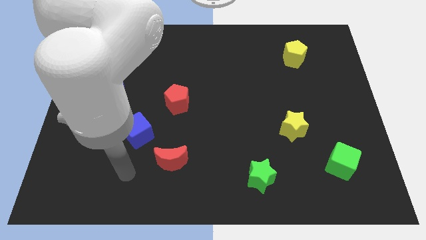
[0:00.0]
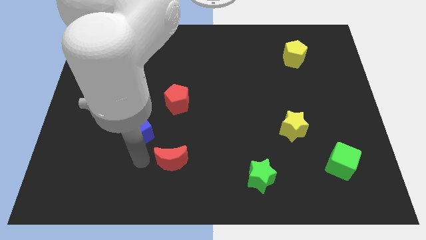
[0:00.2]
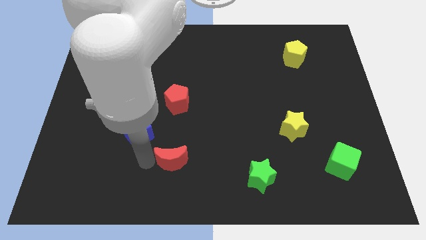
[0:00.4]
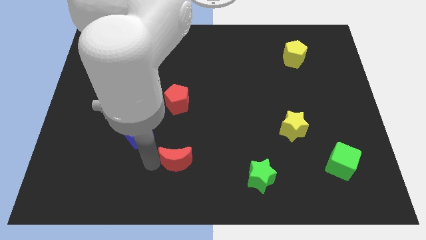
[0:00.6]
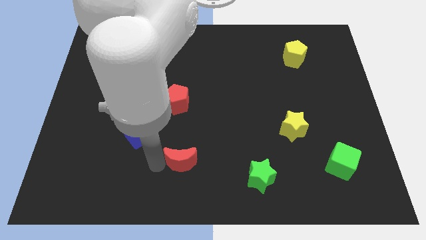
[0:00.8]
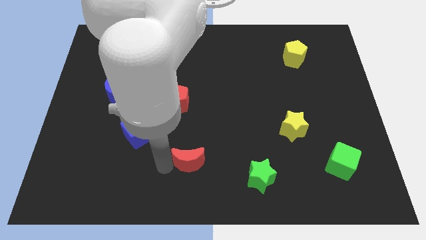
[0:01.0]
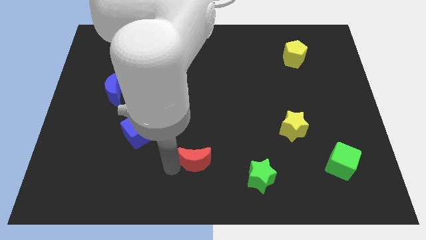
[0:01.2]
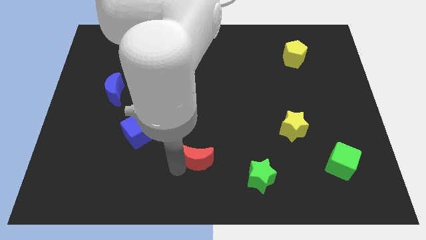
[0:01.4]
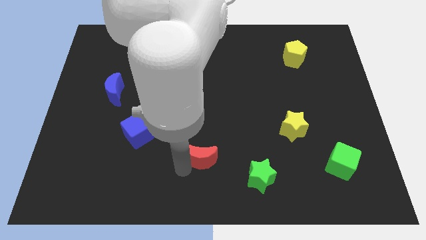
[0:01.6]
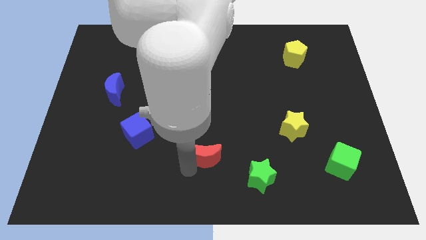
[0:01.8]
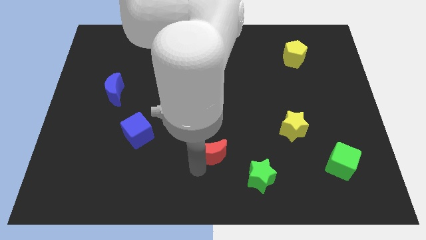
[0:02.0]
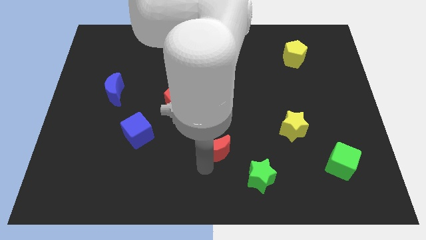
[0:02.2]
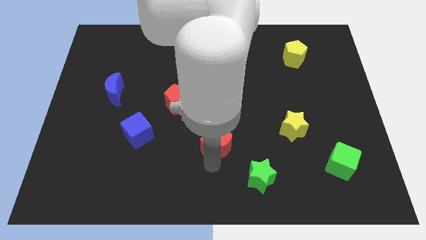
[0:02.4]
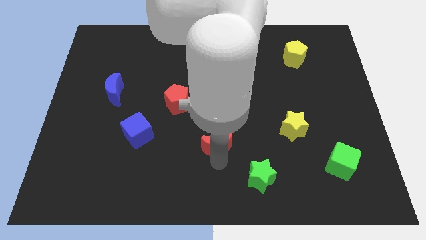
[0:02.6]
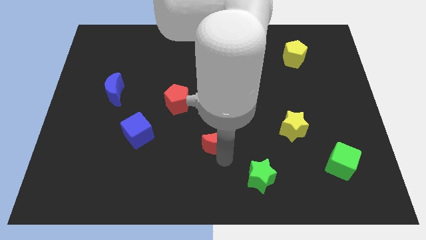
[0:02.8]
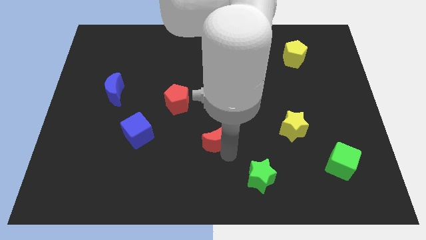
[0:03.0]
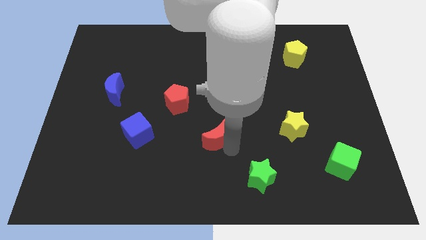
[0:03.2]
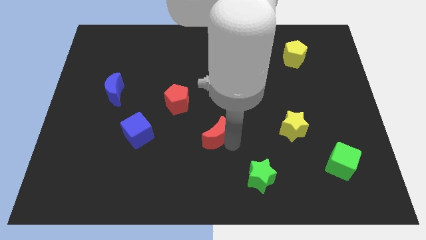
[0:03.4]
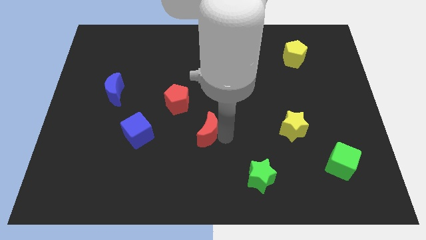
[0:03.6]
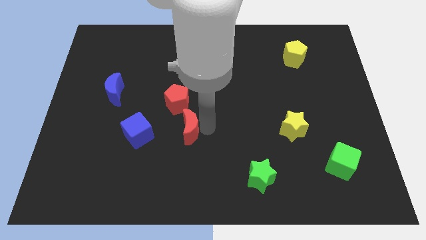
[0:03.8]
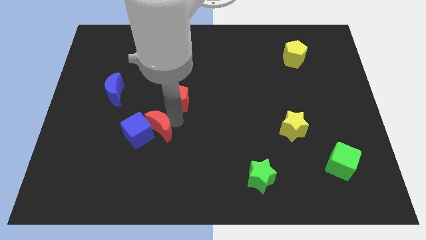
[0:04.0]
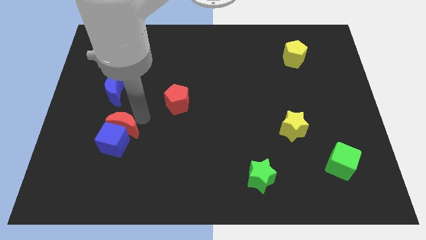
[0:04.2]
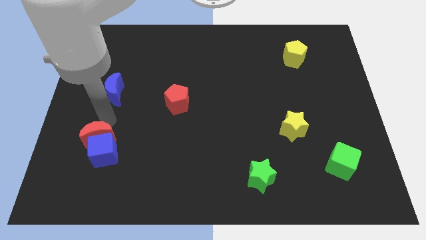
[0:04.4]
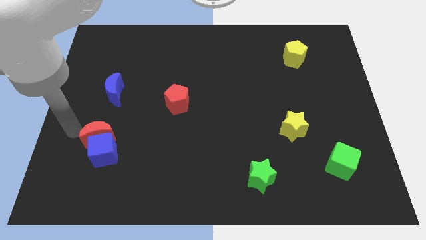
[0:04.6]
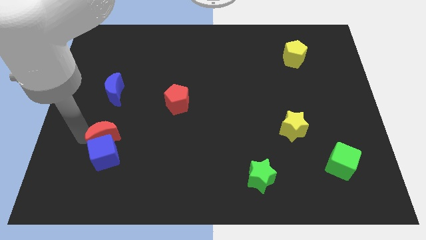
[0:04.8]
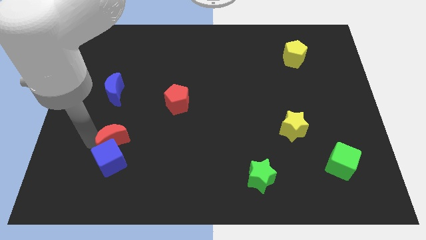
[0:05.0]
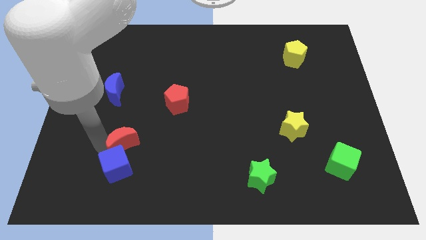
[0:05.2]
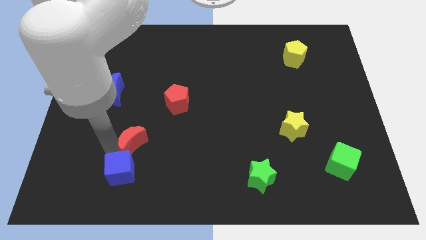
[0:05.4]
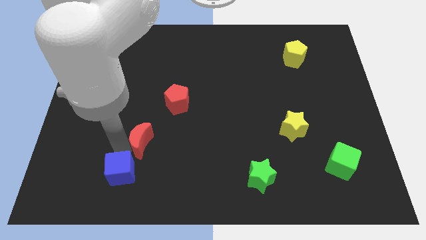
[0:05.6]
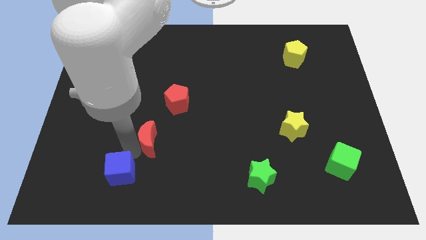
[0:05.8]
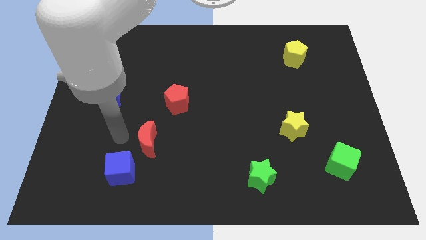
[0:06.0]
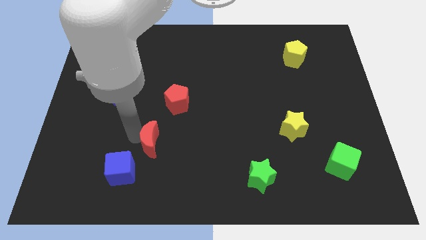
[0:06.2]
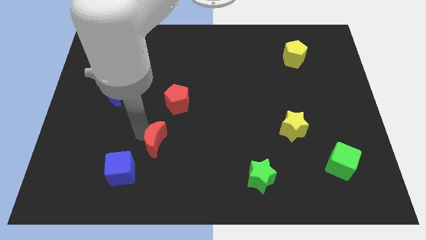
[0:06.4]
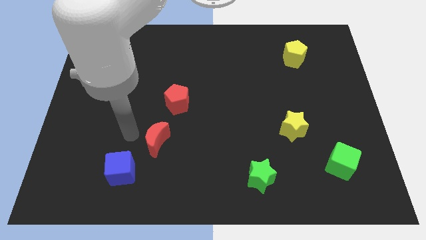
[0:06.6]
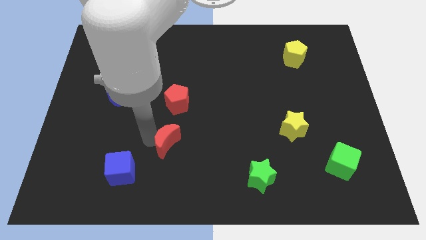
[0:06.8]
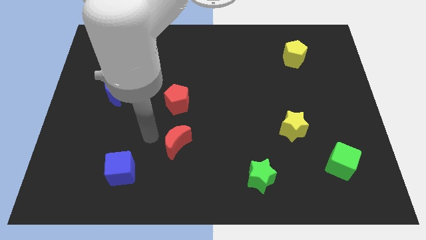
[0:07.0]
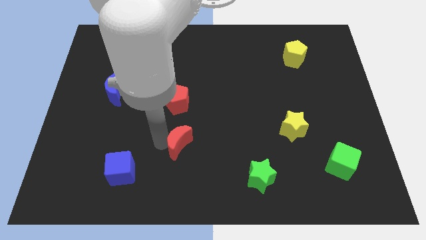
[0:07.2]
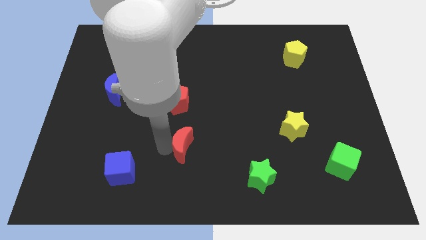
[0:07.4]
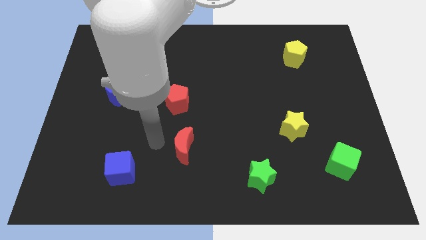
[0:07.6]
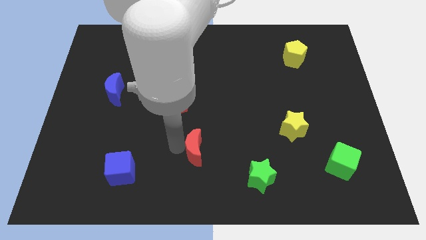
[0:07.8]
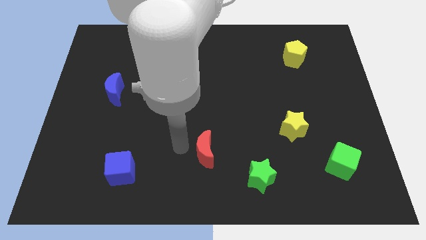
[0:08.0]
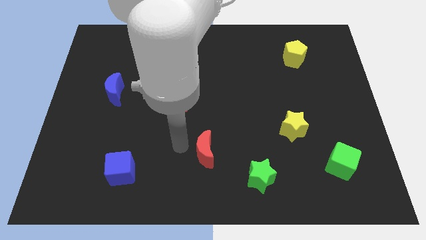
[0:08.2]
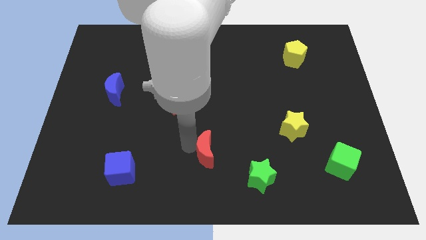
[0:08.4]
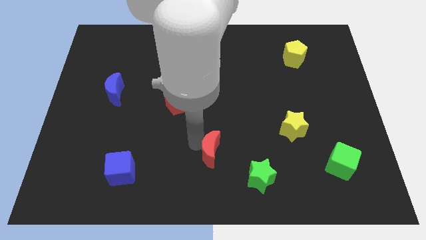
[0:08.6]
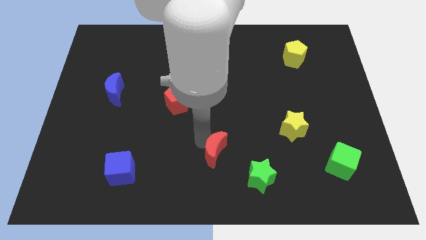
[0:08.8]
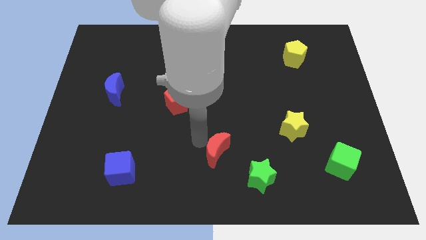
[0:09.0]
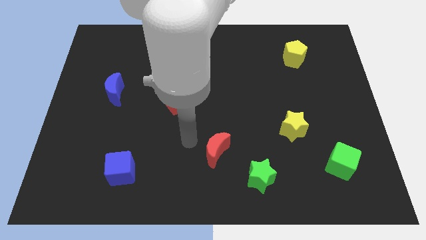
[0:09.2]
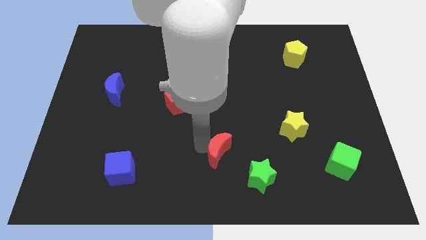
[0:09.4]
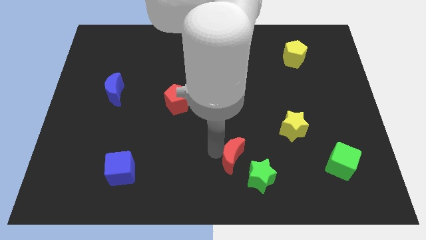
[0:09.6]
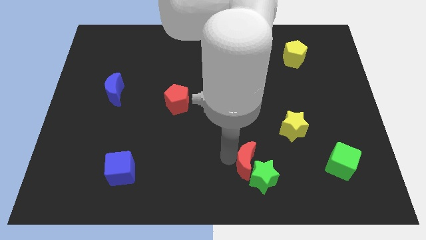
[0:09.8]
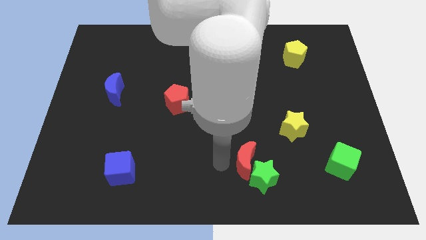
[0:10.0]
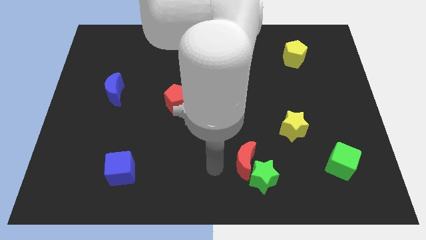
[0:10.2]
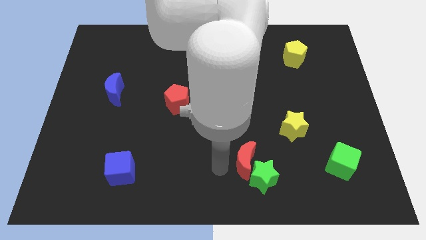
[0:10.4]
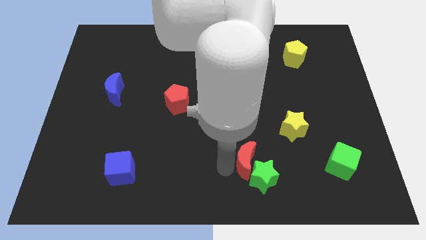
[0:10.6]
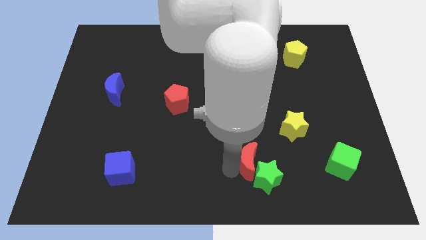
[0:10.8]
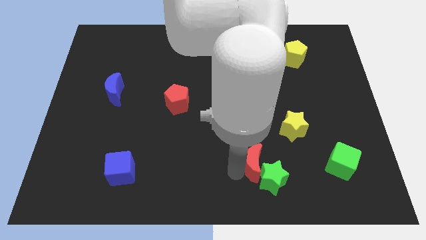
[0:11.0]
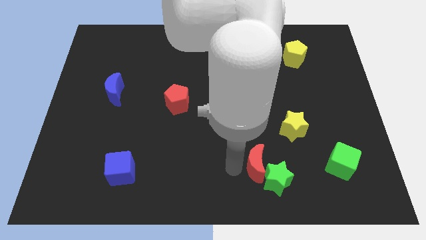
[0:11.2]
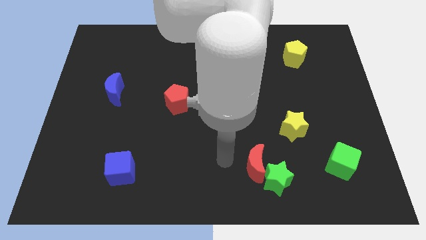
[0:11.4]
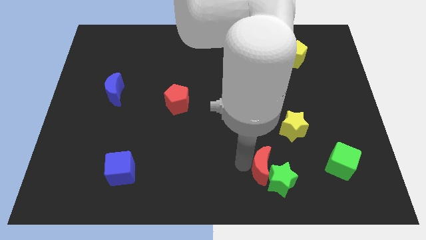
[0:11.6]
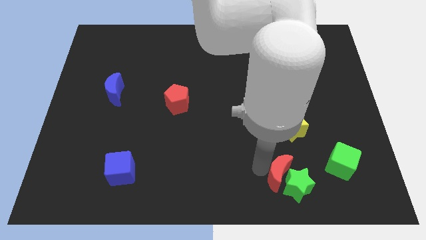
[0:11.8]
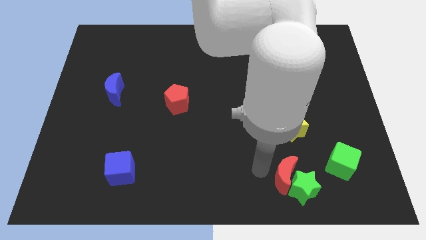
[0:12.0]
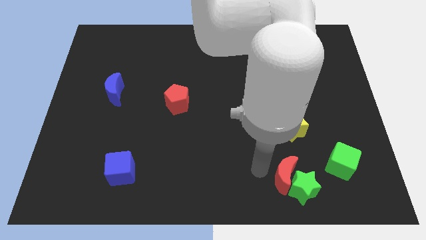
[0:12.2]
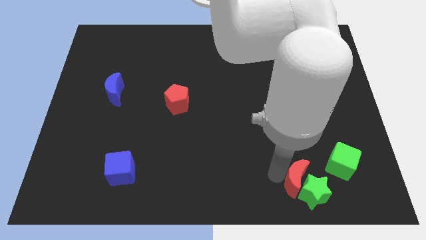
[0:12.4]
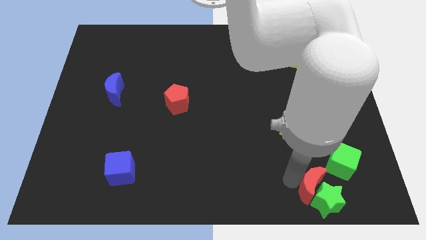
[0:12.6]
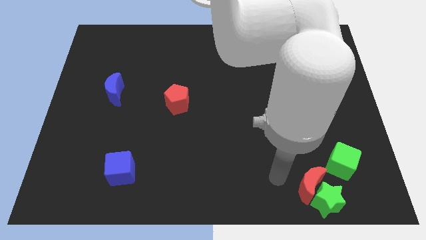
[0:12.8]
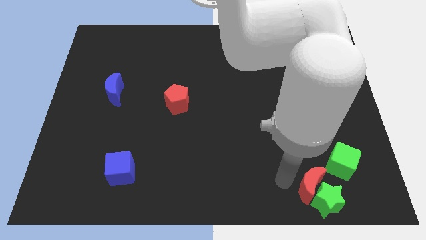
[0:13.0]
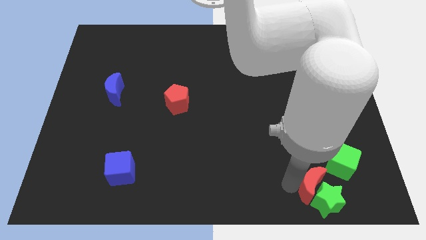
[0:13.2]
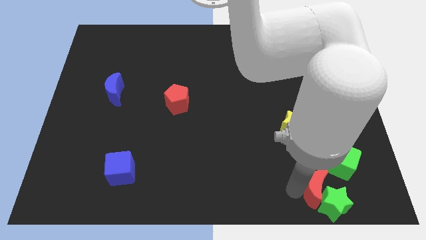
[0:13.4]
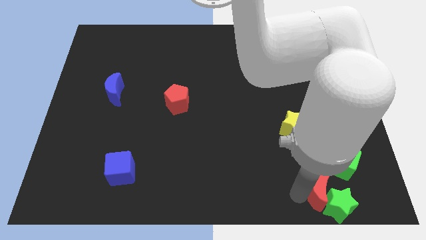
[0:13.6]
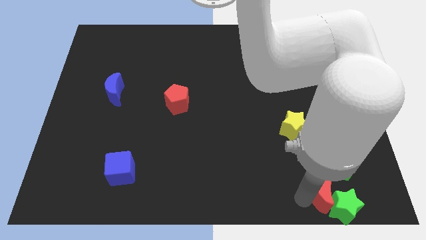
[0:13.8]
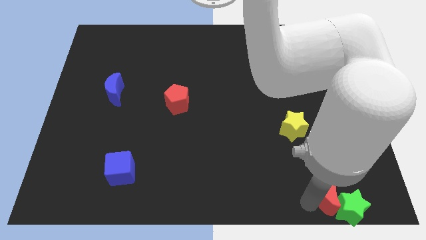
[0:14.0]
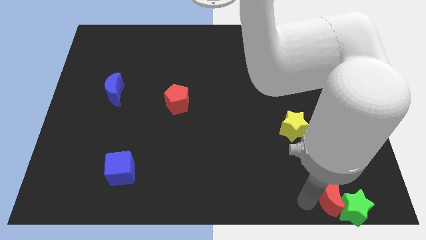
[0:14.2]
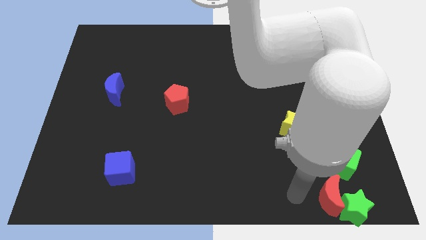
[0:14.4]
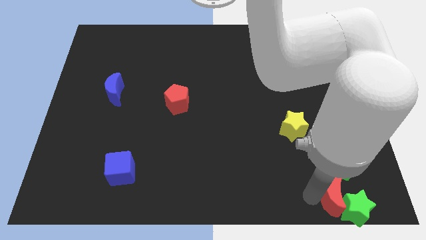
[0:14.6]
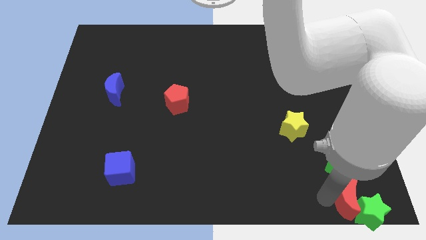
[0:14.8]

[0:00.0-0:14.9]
put the red moon to the bottom right corner
